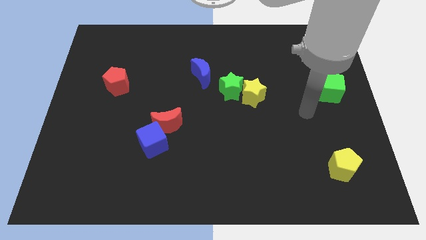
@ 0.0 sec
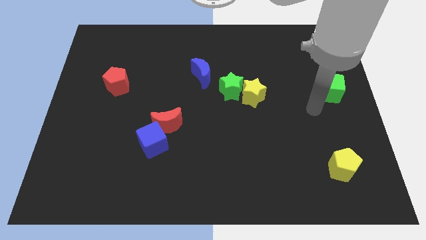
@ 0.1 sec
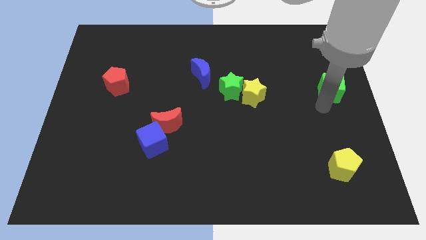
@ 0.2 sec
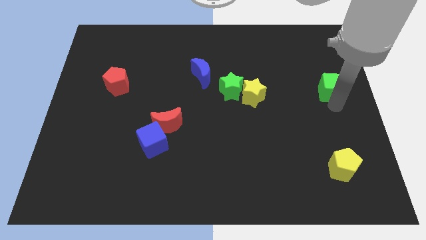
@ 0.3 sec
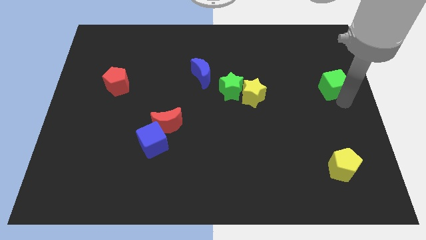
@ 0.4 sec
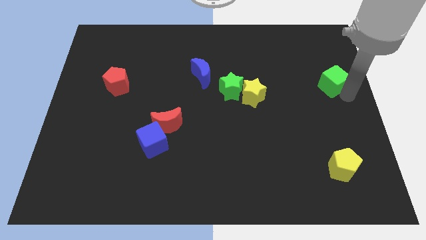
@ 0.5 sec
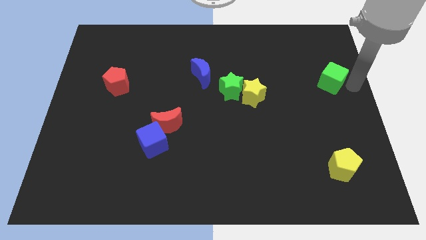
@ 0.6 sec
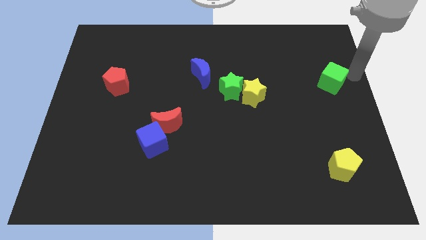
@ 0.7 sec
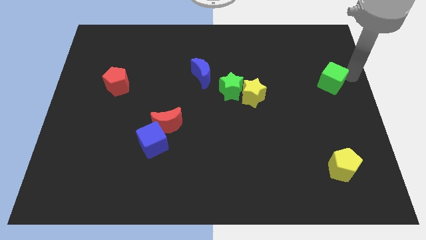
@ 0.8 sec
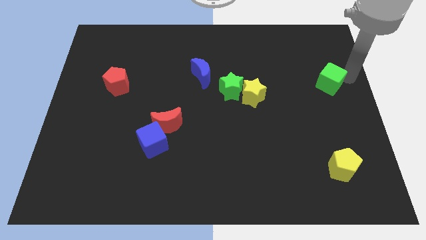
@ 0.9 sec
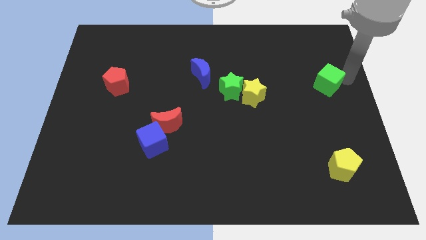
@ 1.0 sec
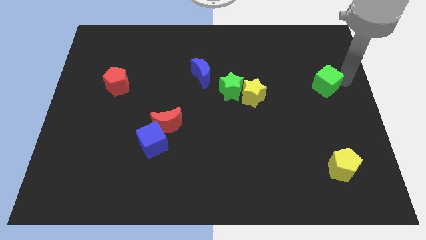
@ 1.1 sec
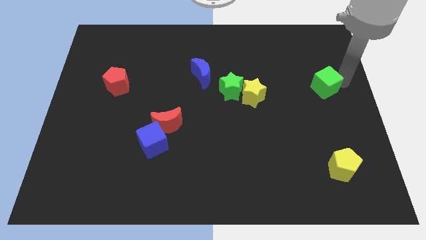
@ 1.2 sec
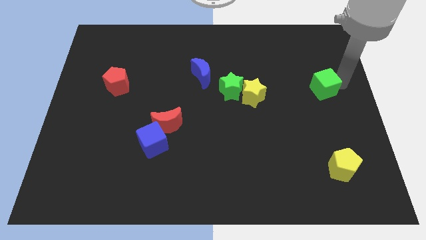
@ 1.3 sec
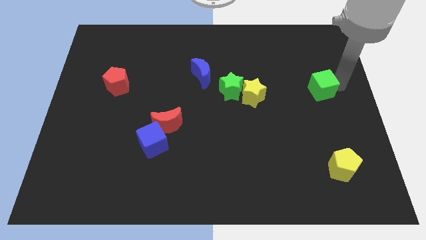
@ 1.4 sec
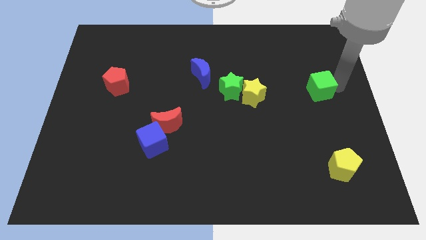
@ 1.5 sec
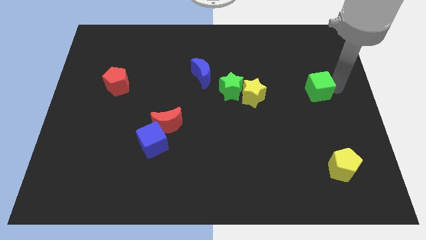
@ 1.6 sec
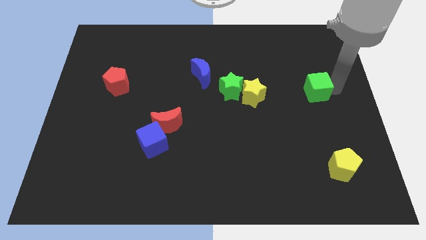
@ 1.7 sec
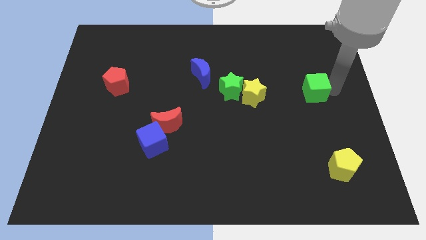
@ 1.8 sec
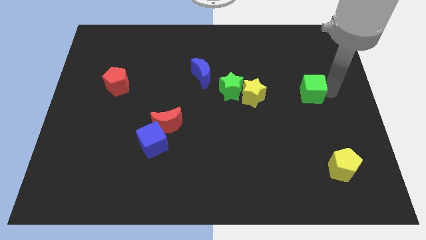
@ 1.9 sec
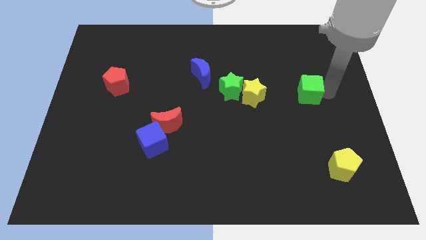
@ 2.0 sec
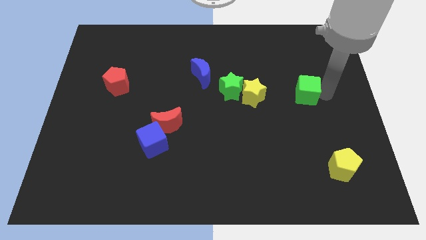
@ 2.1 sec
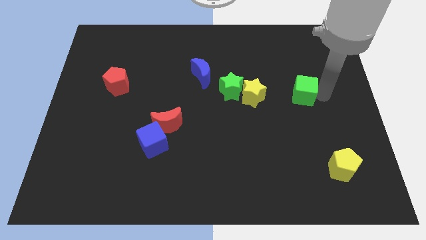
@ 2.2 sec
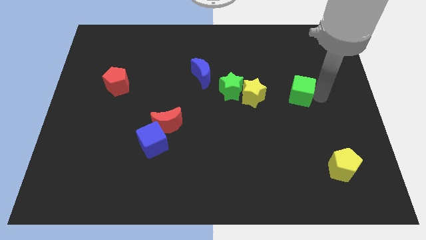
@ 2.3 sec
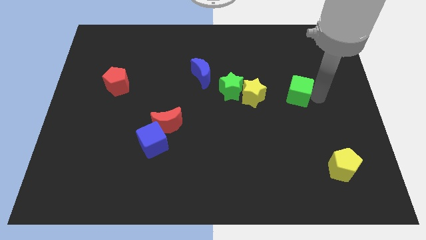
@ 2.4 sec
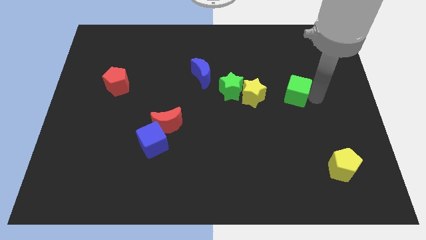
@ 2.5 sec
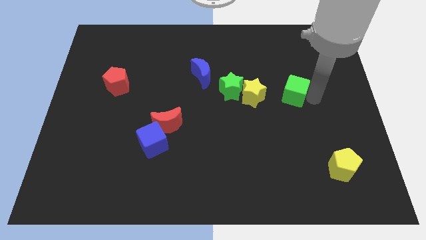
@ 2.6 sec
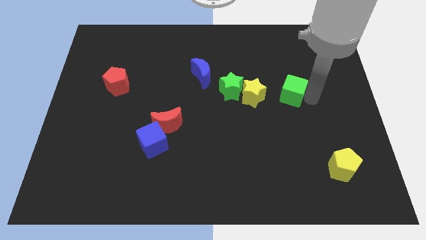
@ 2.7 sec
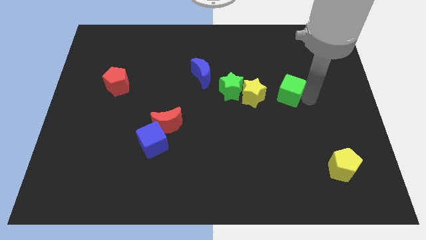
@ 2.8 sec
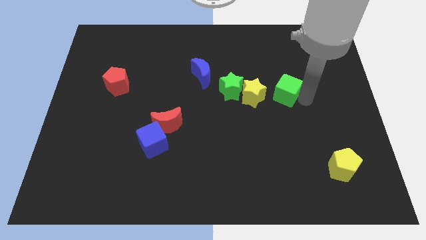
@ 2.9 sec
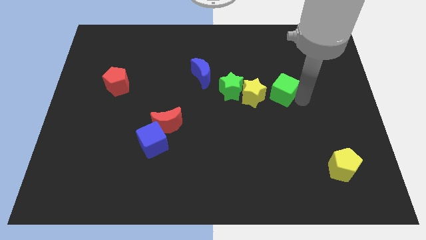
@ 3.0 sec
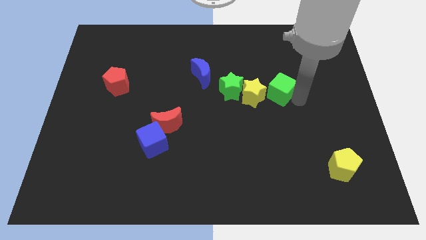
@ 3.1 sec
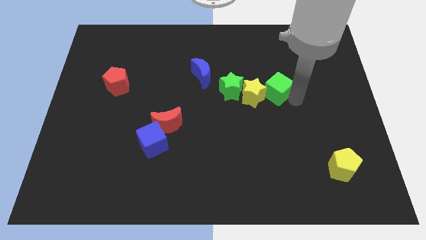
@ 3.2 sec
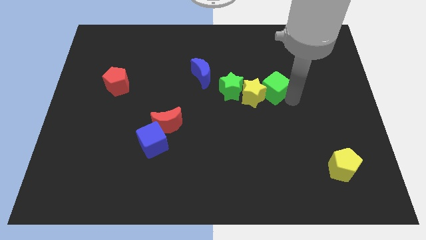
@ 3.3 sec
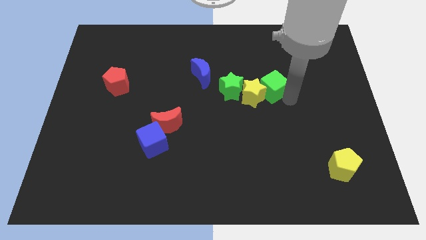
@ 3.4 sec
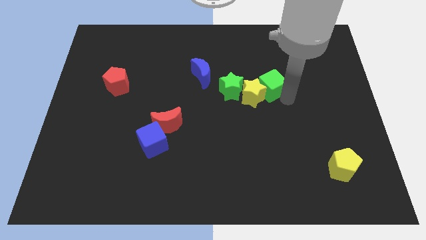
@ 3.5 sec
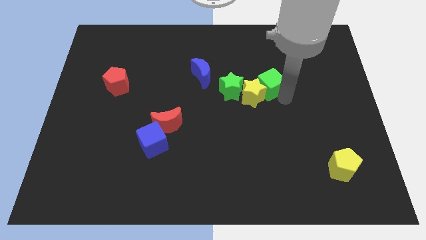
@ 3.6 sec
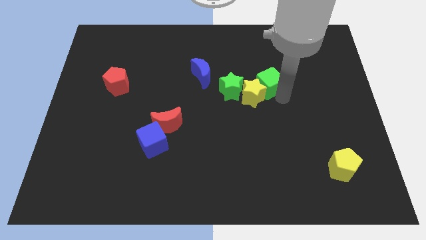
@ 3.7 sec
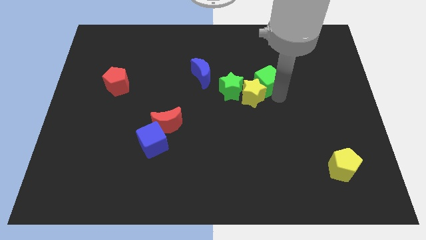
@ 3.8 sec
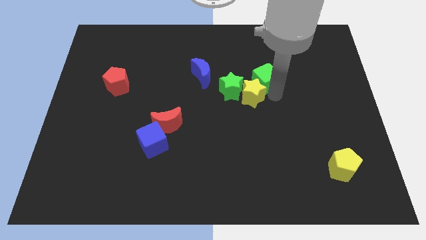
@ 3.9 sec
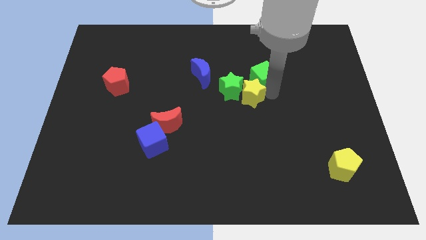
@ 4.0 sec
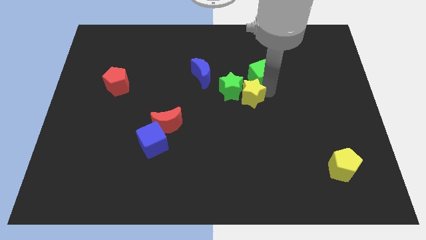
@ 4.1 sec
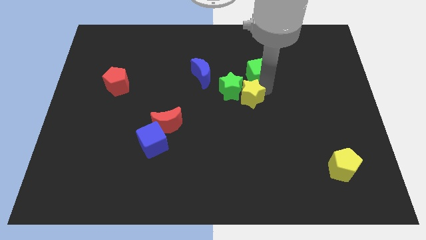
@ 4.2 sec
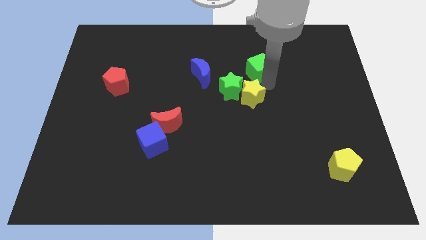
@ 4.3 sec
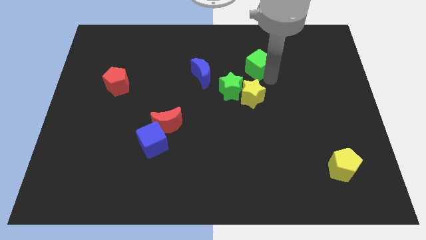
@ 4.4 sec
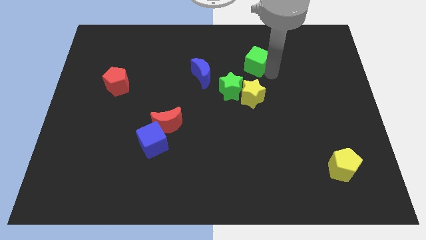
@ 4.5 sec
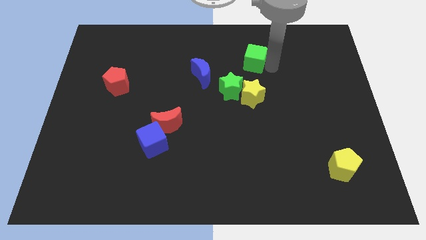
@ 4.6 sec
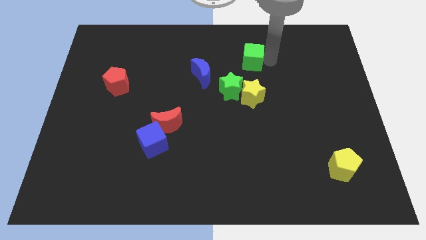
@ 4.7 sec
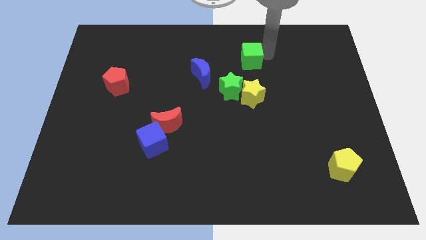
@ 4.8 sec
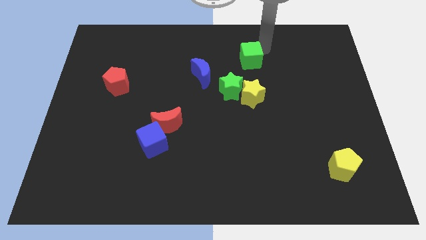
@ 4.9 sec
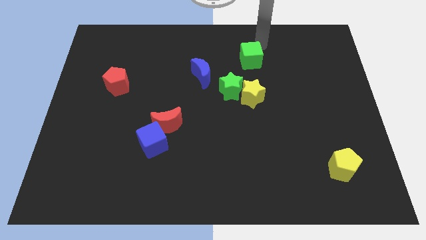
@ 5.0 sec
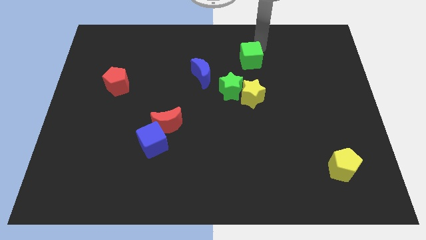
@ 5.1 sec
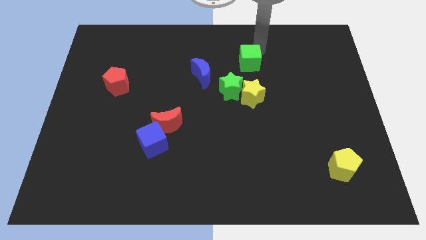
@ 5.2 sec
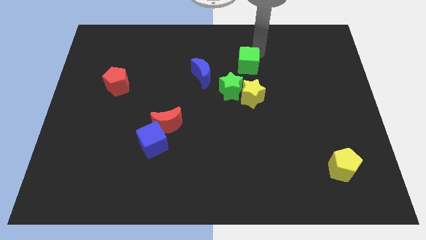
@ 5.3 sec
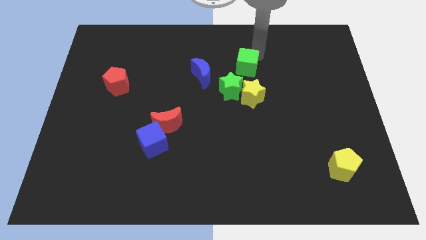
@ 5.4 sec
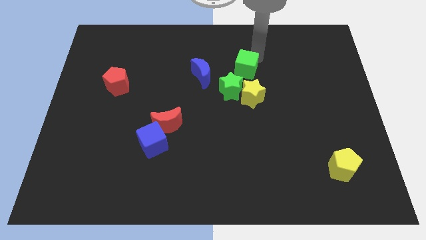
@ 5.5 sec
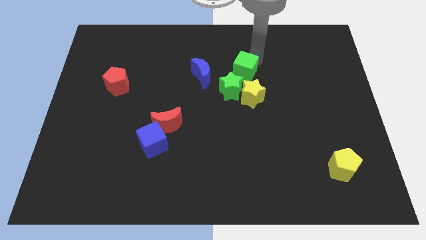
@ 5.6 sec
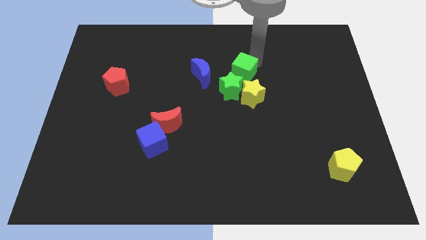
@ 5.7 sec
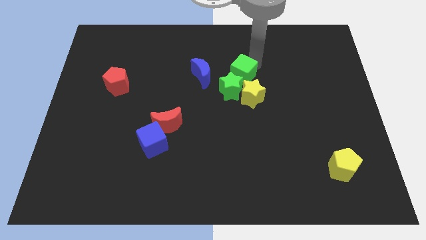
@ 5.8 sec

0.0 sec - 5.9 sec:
move the green cube towards the green star

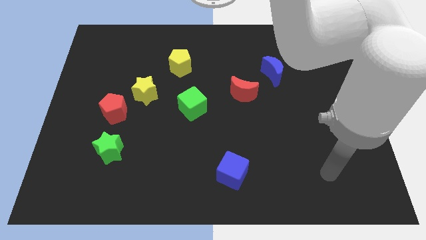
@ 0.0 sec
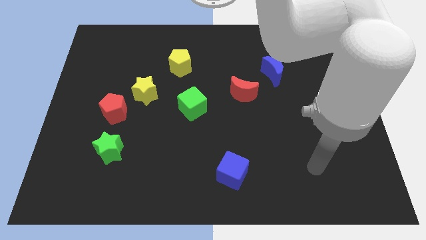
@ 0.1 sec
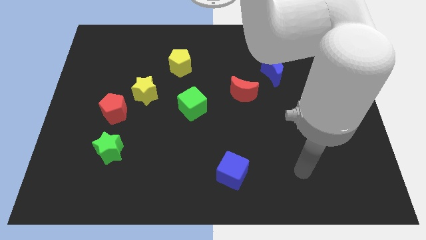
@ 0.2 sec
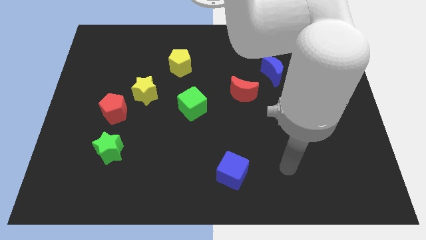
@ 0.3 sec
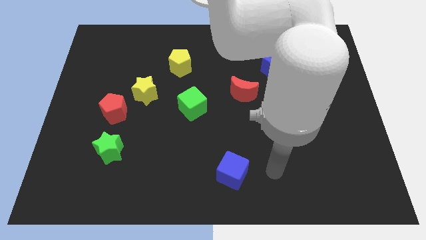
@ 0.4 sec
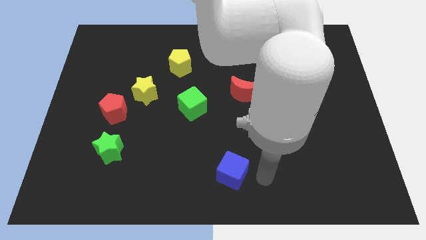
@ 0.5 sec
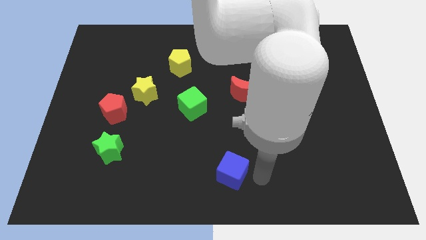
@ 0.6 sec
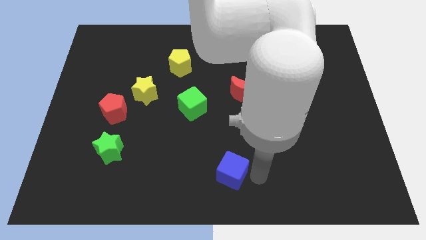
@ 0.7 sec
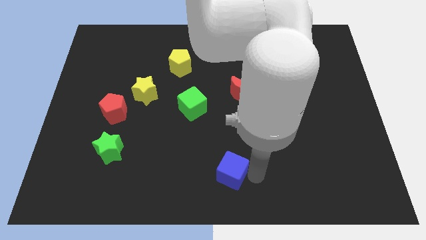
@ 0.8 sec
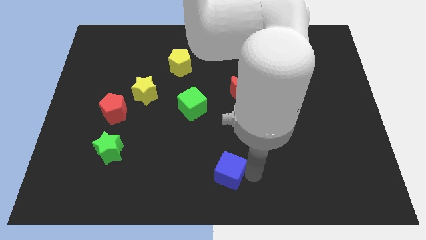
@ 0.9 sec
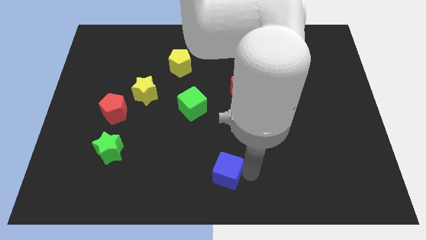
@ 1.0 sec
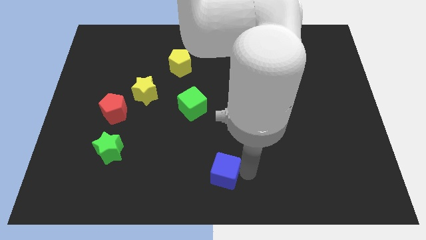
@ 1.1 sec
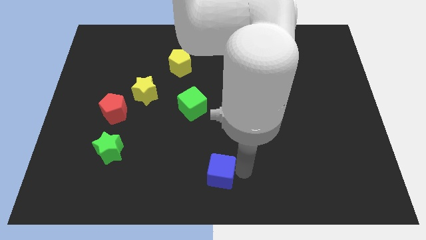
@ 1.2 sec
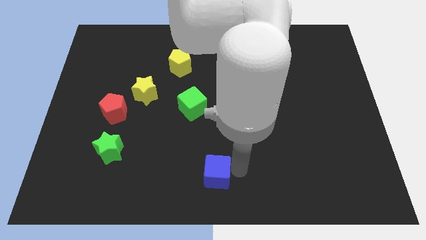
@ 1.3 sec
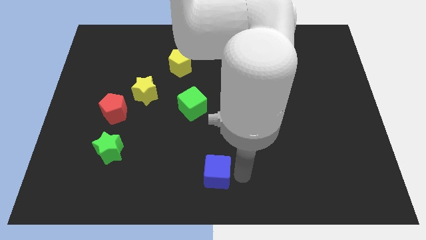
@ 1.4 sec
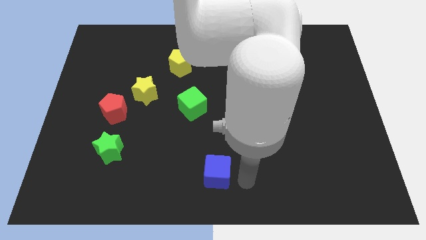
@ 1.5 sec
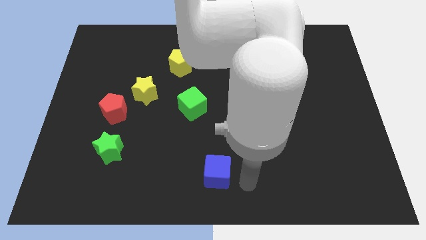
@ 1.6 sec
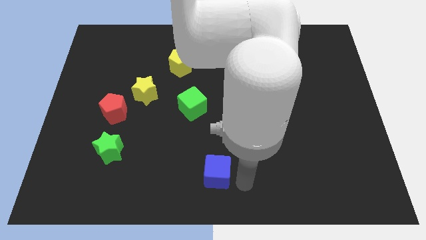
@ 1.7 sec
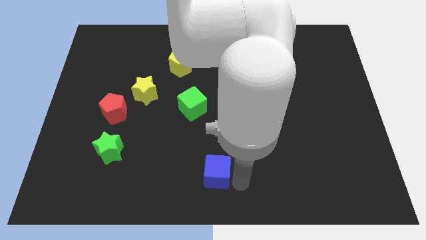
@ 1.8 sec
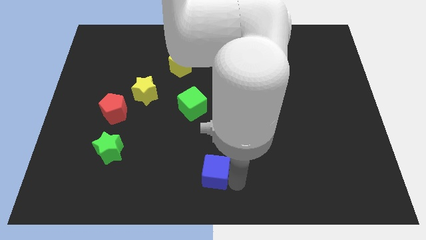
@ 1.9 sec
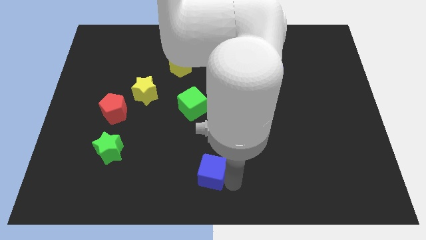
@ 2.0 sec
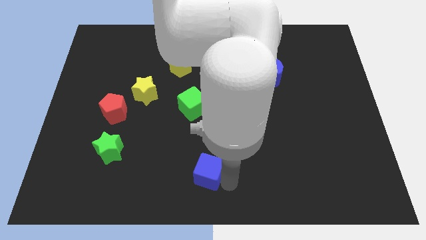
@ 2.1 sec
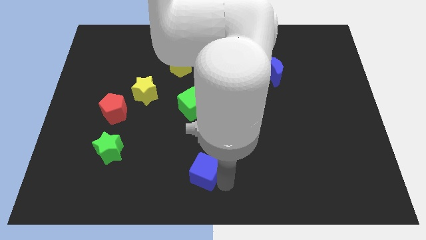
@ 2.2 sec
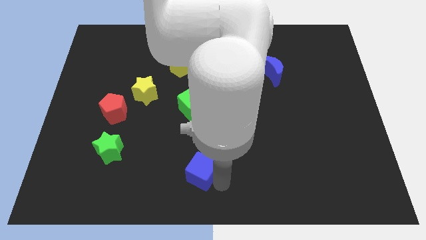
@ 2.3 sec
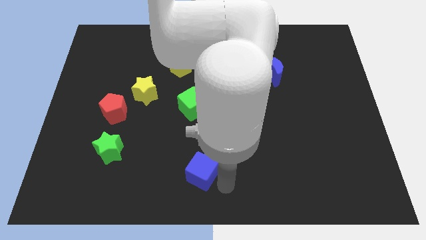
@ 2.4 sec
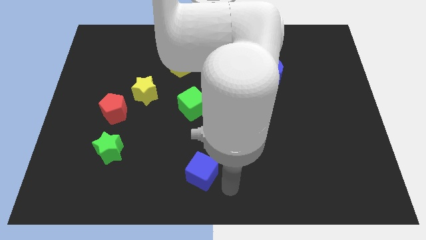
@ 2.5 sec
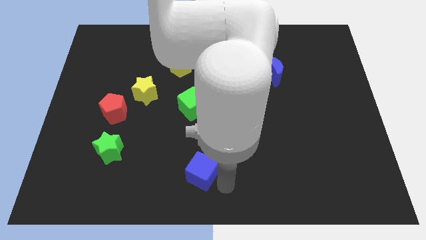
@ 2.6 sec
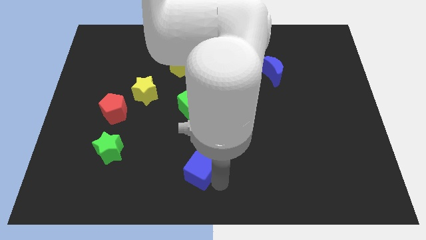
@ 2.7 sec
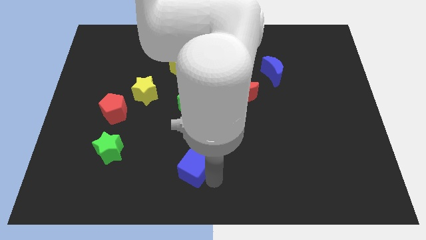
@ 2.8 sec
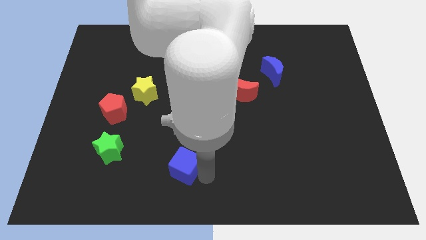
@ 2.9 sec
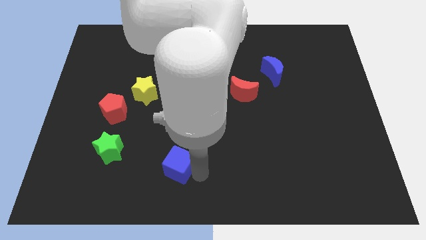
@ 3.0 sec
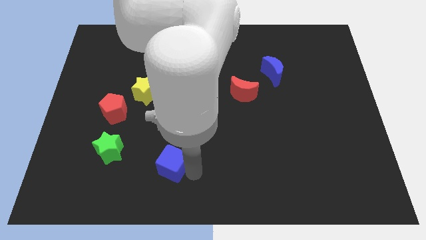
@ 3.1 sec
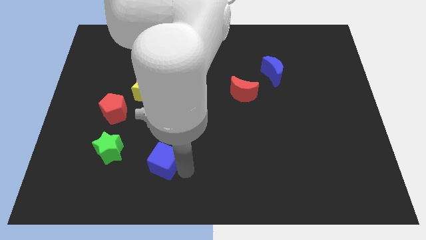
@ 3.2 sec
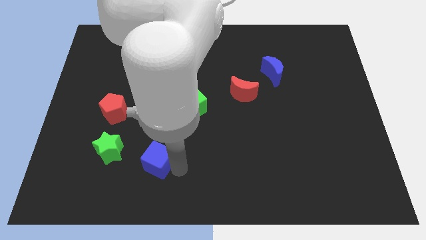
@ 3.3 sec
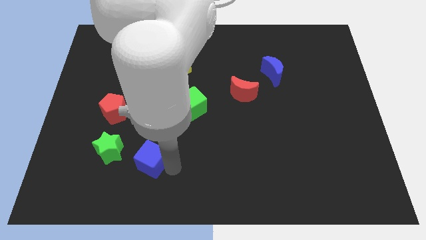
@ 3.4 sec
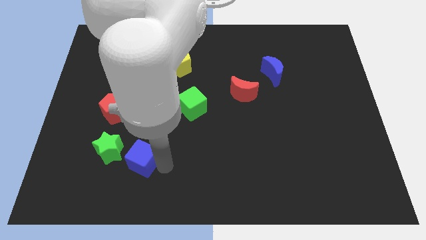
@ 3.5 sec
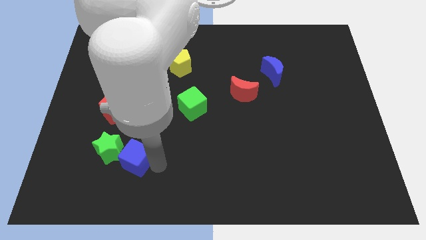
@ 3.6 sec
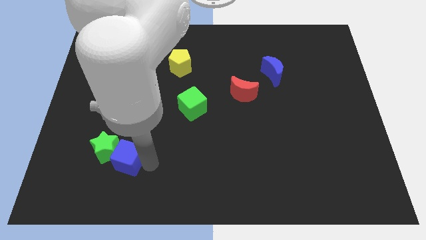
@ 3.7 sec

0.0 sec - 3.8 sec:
put the blue cube to the green star
